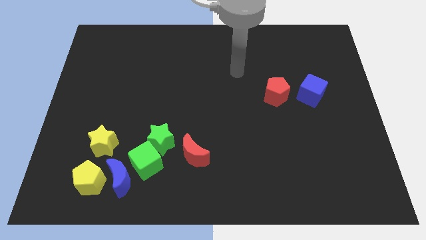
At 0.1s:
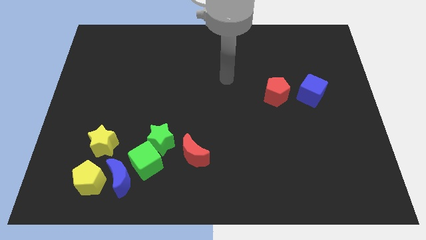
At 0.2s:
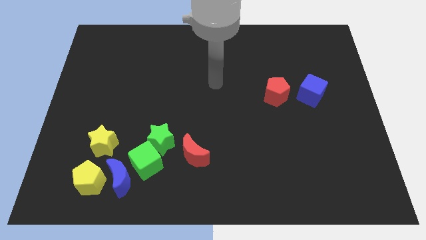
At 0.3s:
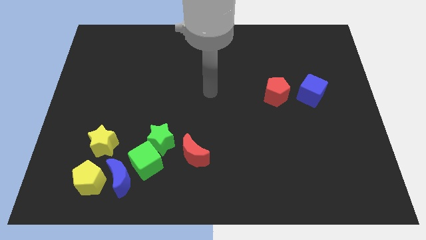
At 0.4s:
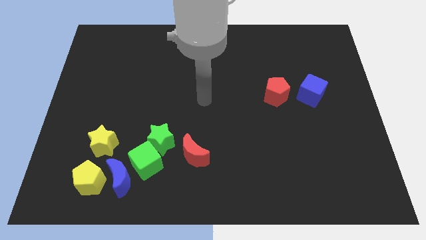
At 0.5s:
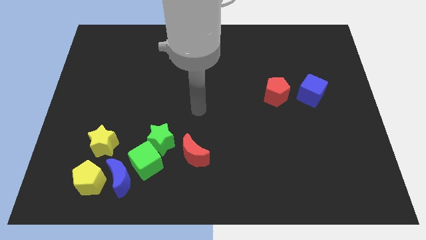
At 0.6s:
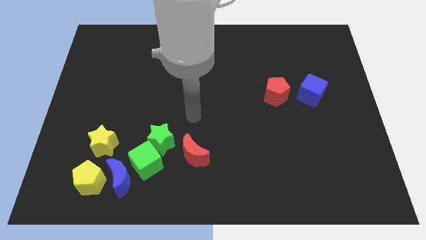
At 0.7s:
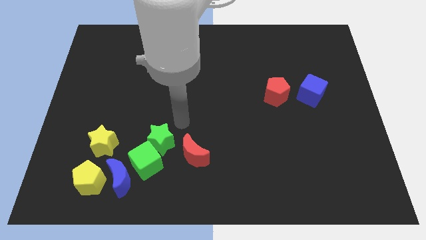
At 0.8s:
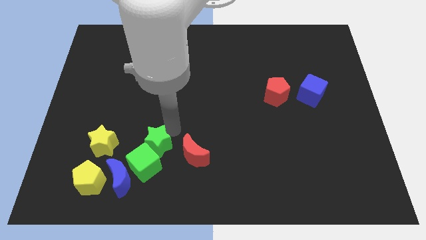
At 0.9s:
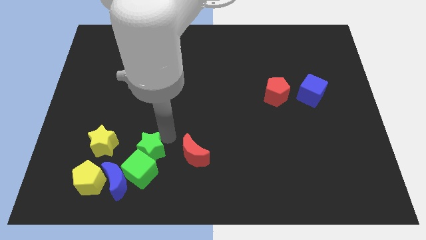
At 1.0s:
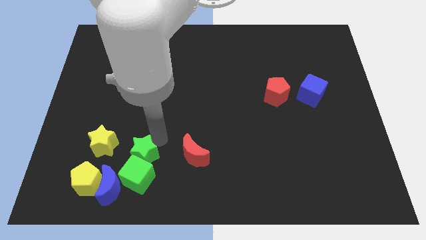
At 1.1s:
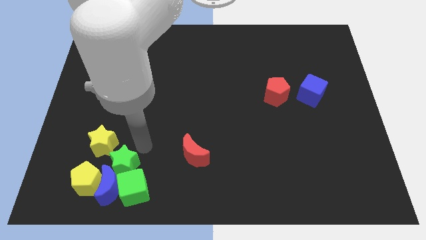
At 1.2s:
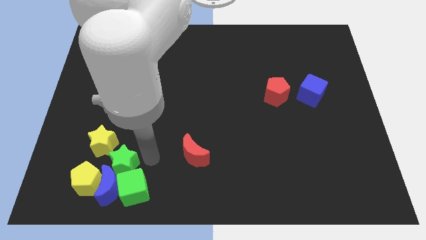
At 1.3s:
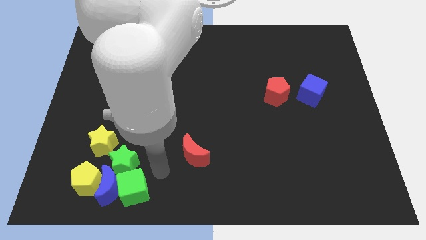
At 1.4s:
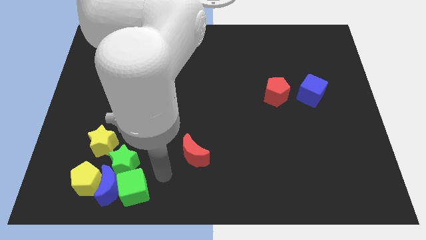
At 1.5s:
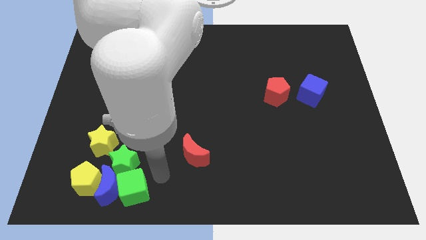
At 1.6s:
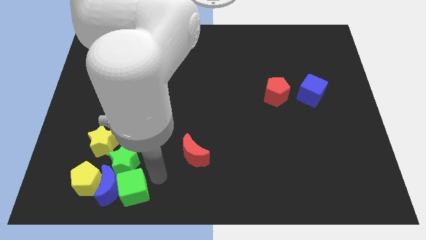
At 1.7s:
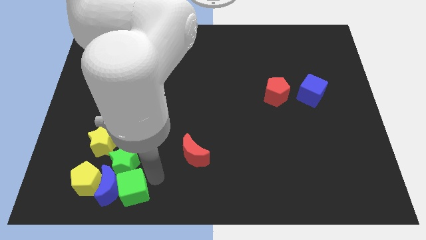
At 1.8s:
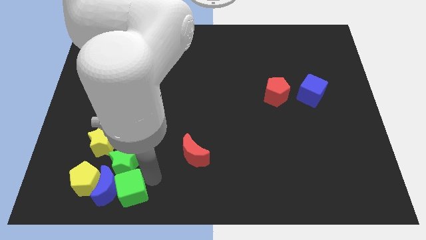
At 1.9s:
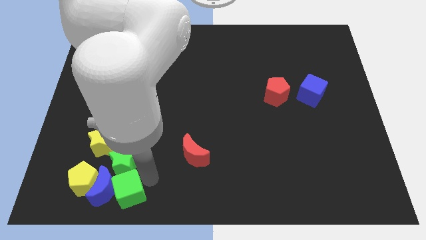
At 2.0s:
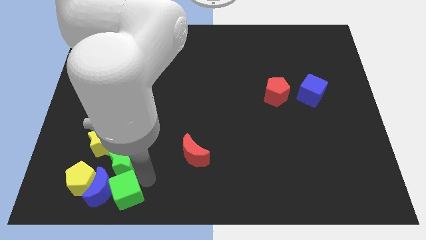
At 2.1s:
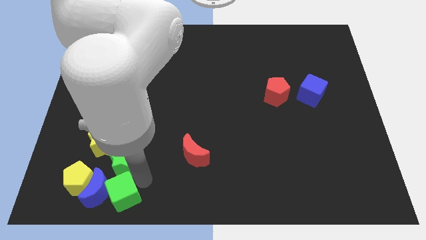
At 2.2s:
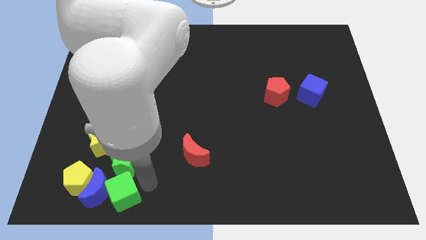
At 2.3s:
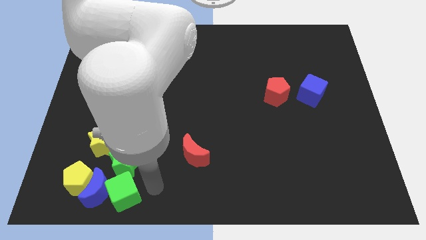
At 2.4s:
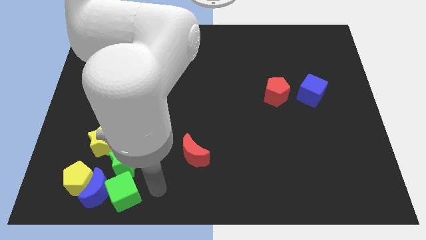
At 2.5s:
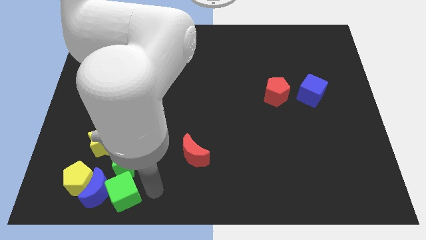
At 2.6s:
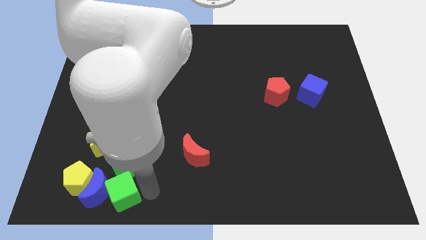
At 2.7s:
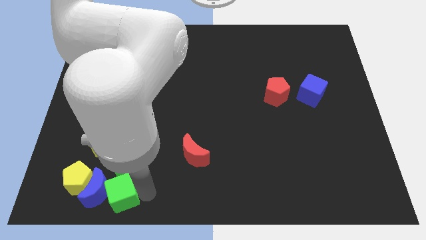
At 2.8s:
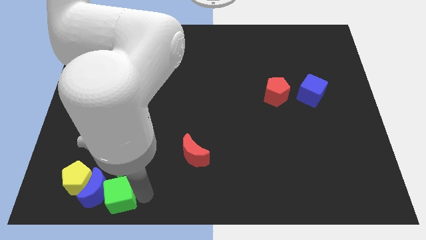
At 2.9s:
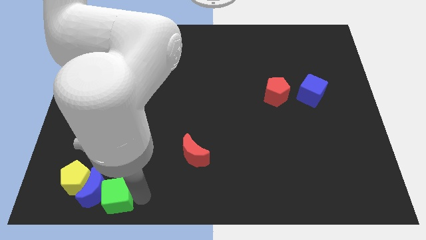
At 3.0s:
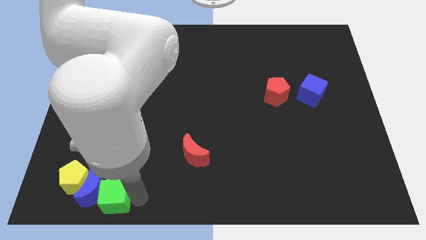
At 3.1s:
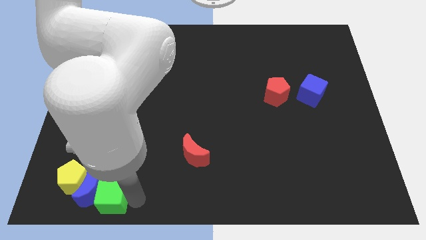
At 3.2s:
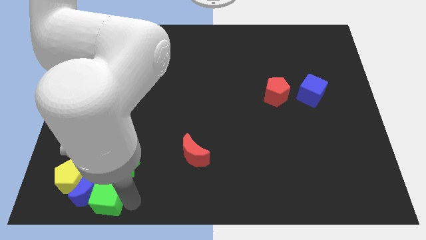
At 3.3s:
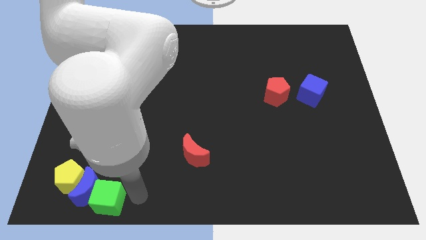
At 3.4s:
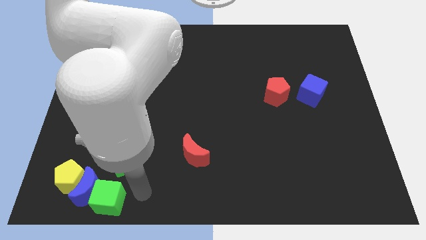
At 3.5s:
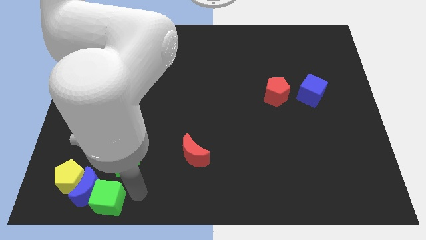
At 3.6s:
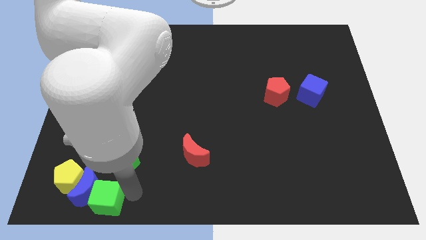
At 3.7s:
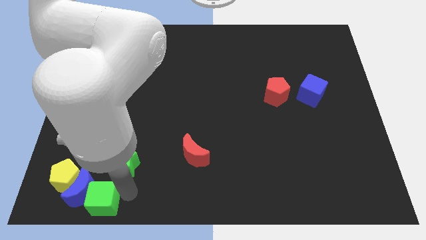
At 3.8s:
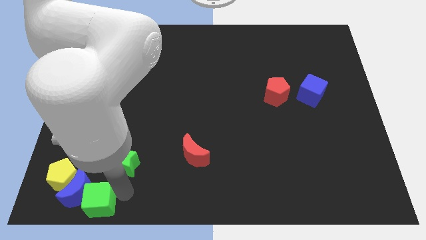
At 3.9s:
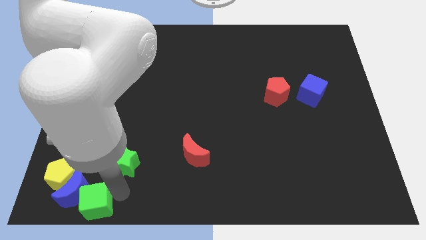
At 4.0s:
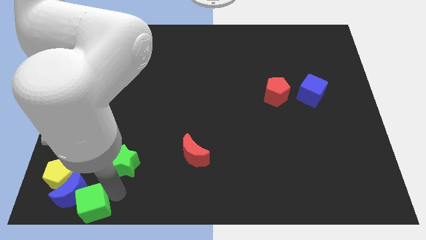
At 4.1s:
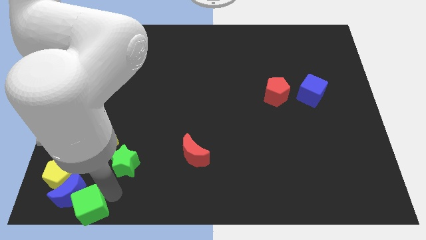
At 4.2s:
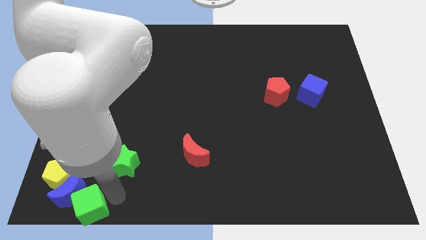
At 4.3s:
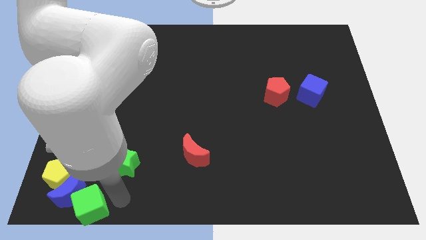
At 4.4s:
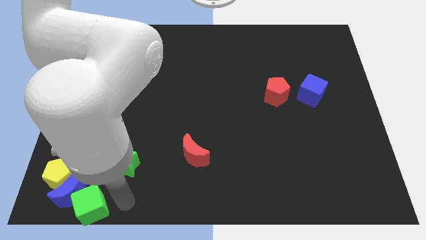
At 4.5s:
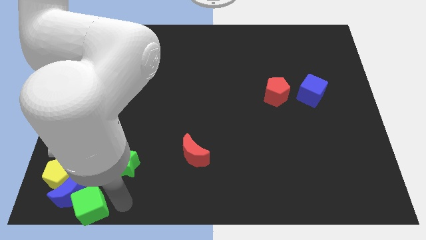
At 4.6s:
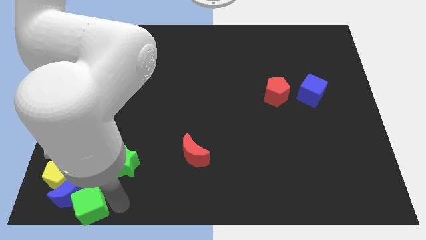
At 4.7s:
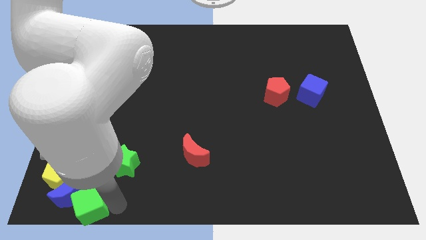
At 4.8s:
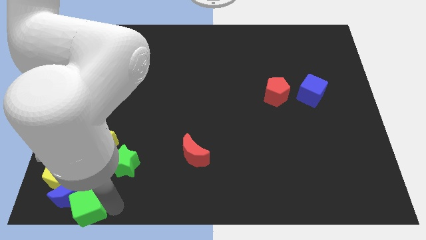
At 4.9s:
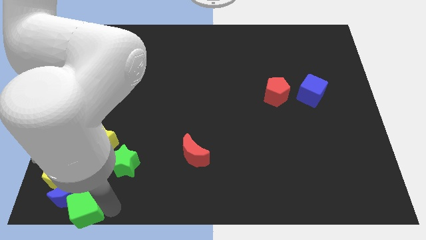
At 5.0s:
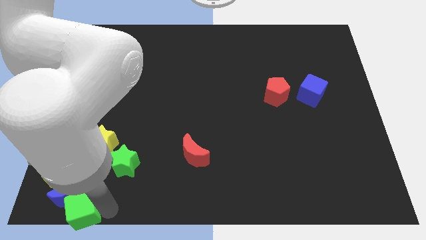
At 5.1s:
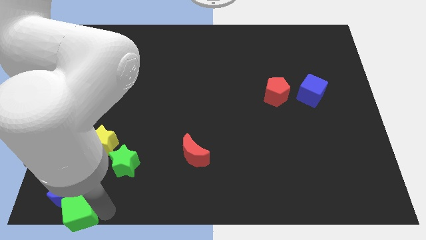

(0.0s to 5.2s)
move the green cube to the bottom left of the board

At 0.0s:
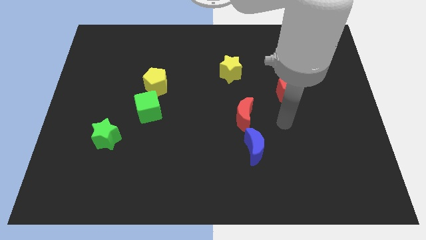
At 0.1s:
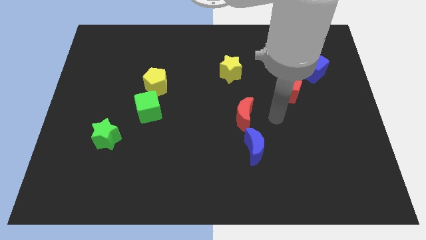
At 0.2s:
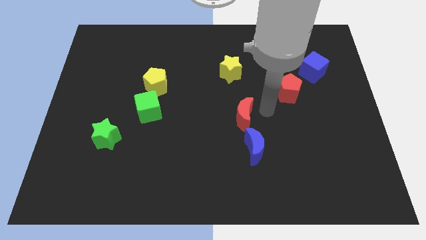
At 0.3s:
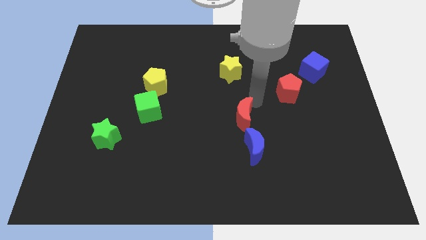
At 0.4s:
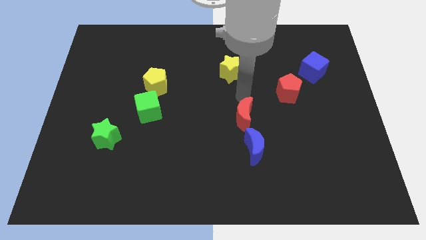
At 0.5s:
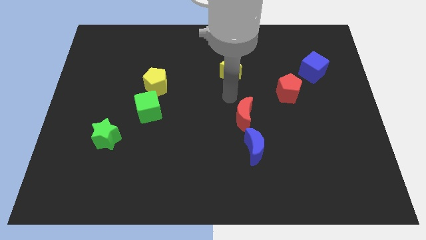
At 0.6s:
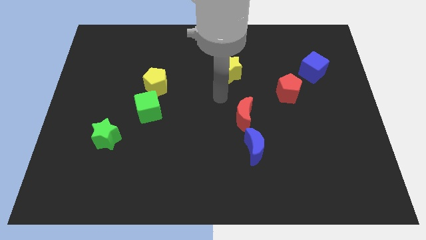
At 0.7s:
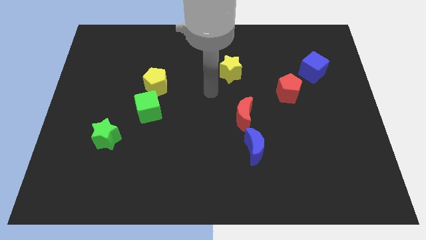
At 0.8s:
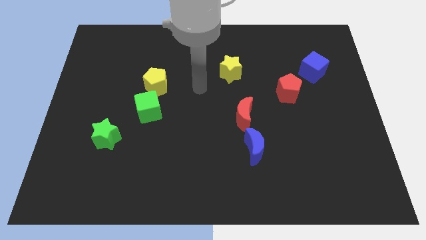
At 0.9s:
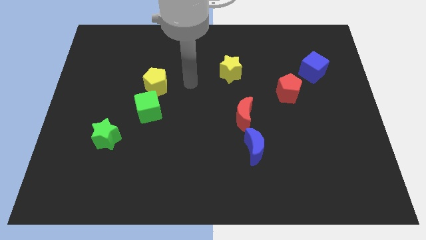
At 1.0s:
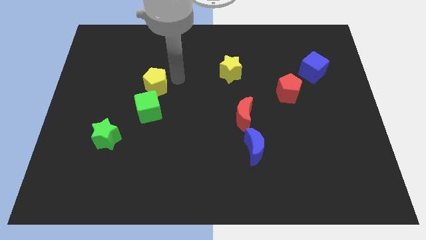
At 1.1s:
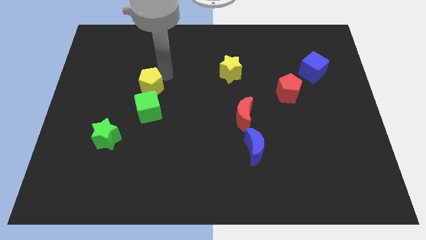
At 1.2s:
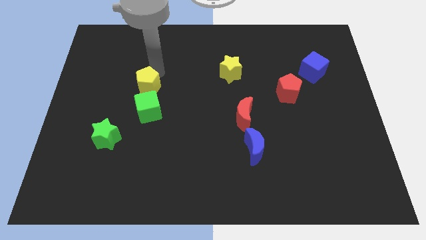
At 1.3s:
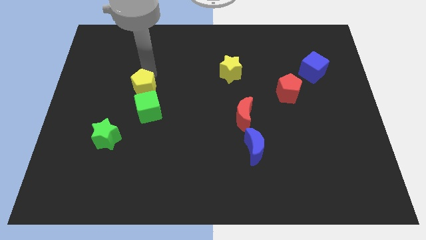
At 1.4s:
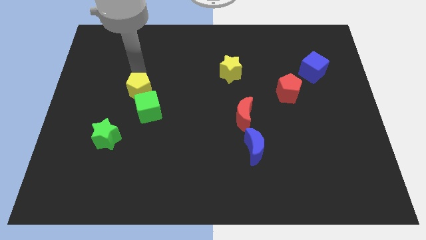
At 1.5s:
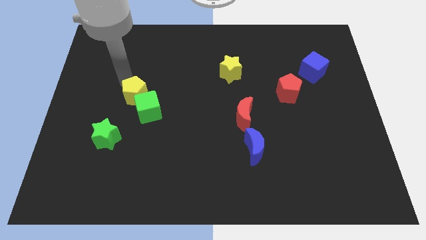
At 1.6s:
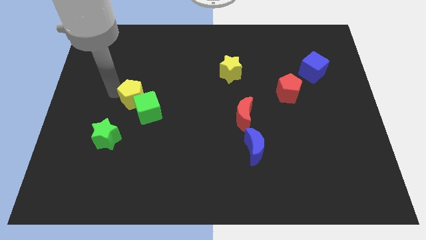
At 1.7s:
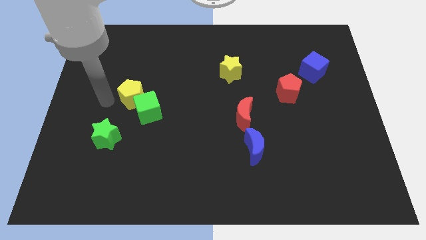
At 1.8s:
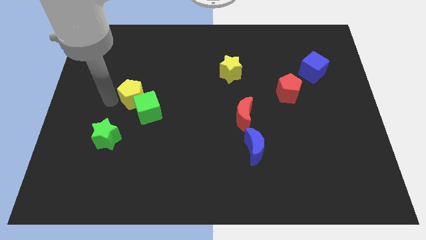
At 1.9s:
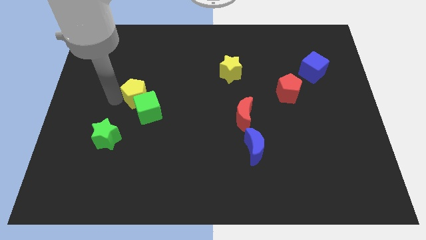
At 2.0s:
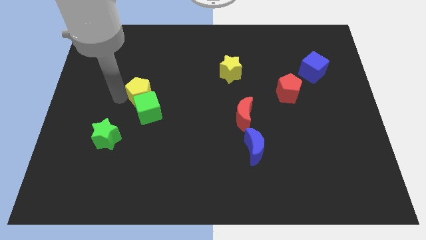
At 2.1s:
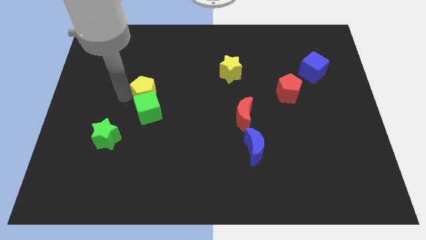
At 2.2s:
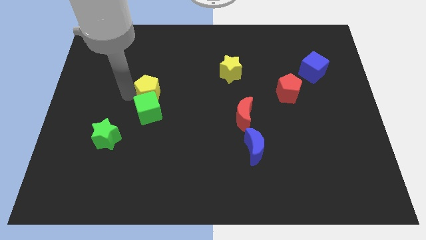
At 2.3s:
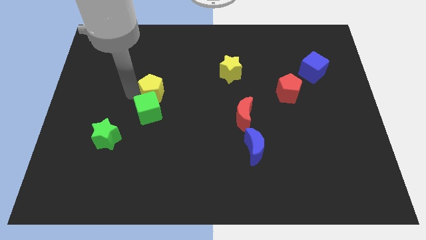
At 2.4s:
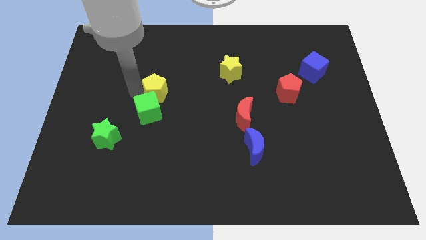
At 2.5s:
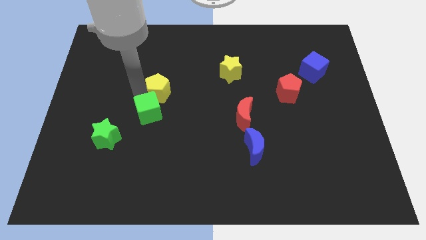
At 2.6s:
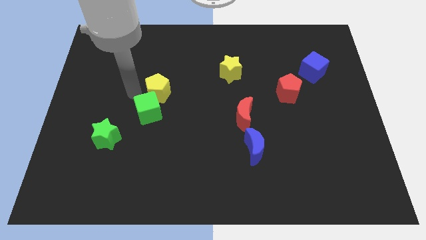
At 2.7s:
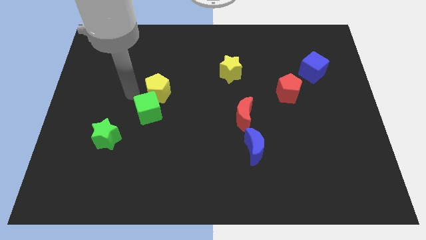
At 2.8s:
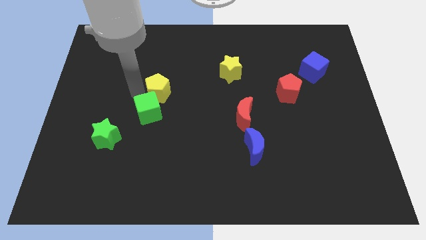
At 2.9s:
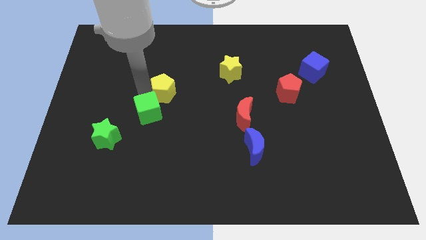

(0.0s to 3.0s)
put the yellow pentagon to the center of the board
